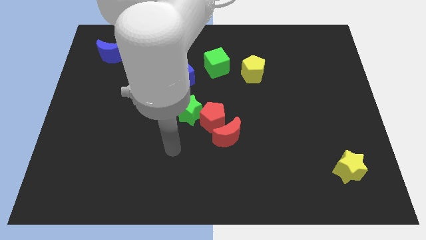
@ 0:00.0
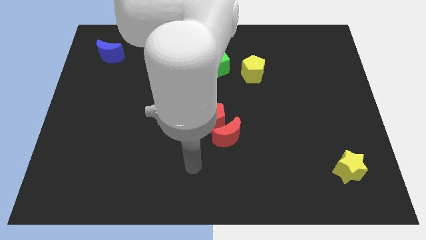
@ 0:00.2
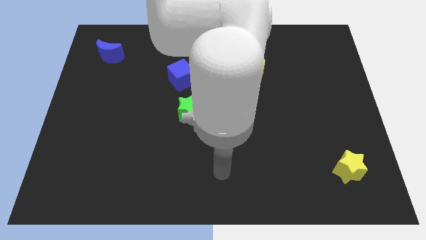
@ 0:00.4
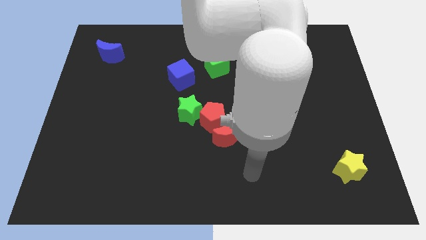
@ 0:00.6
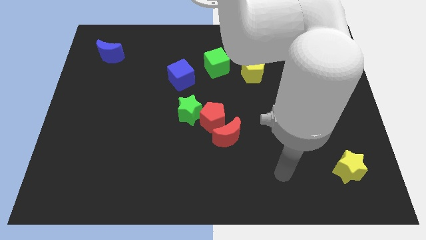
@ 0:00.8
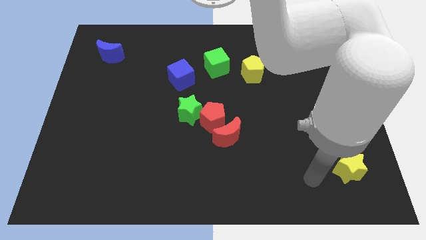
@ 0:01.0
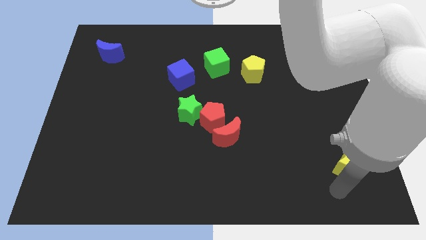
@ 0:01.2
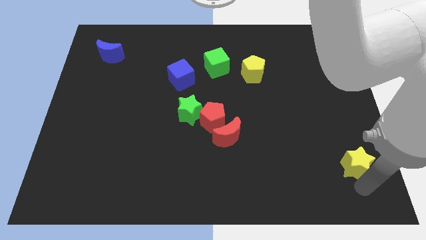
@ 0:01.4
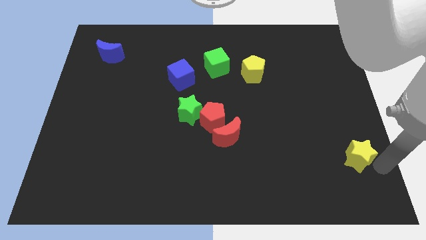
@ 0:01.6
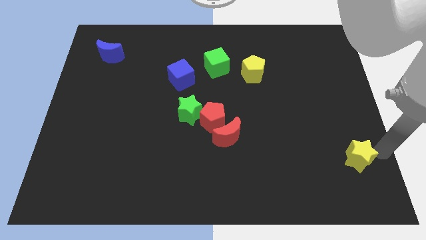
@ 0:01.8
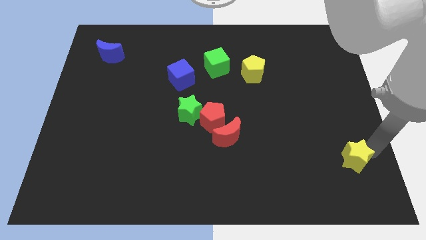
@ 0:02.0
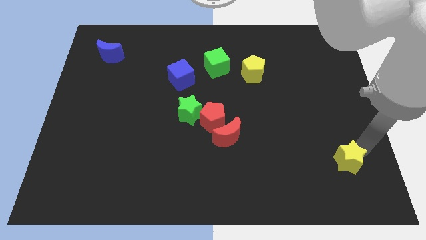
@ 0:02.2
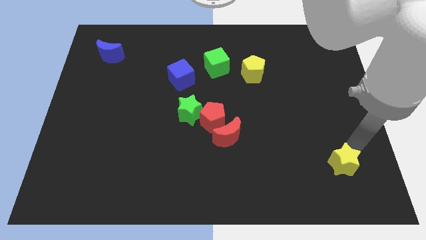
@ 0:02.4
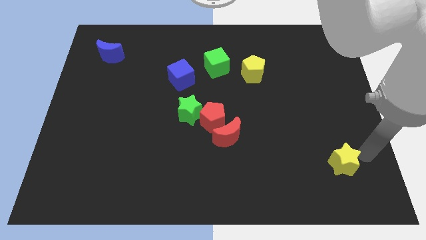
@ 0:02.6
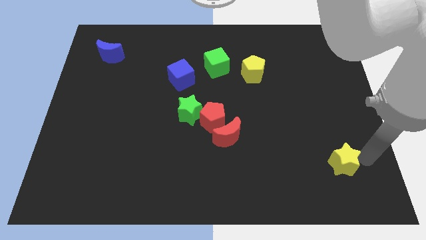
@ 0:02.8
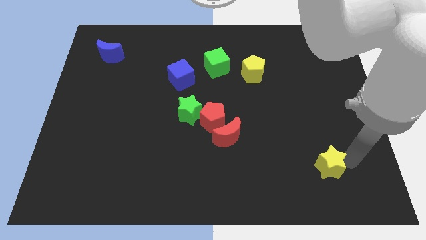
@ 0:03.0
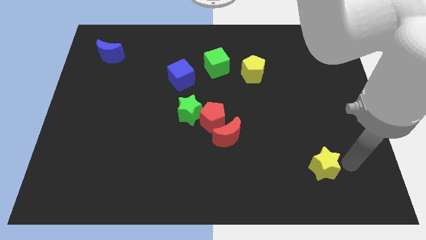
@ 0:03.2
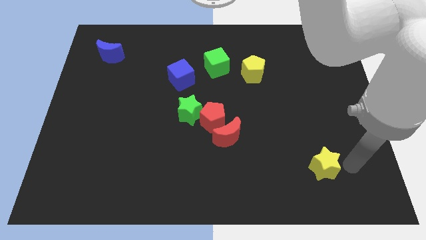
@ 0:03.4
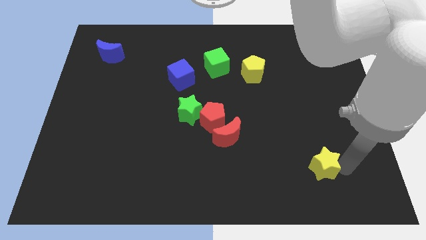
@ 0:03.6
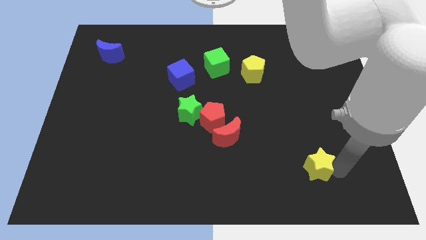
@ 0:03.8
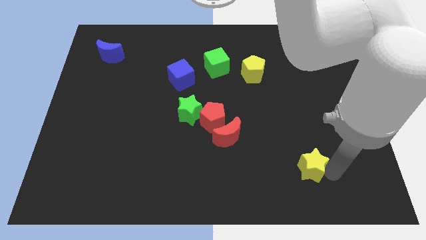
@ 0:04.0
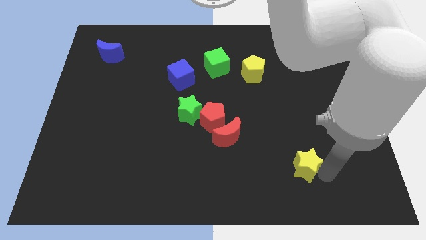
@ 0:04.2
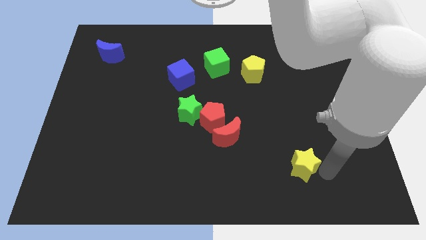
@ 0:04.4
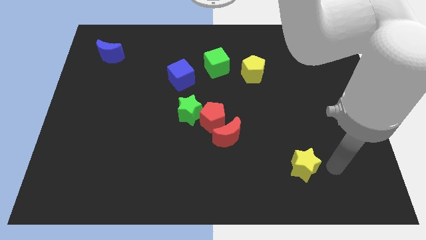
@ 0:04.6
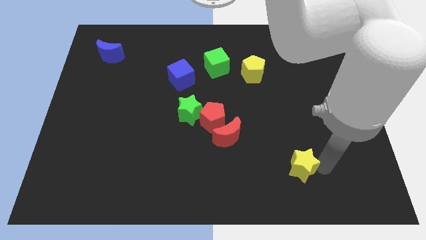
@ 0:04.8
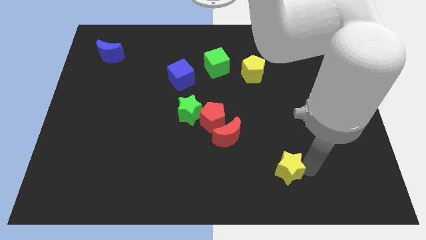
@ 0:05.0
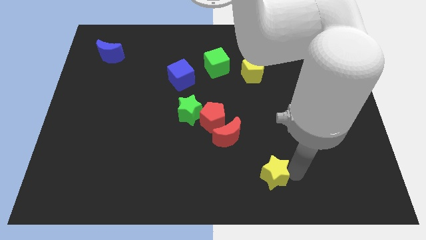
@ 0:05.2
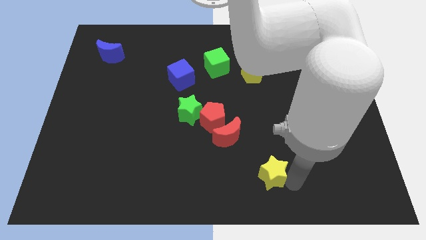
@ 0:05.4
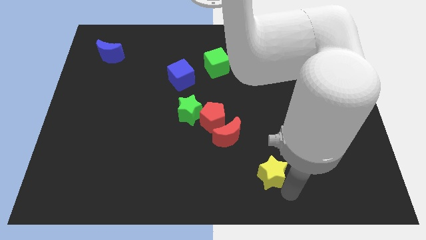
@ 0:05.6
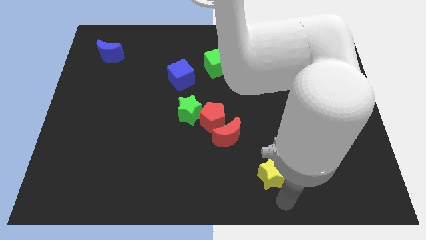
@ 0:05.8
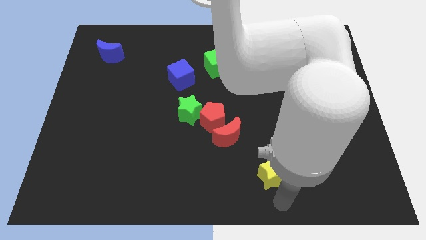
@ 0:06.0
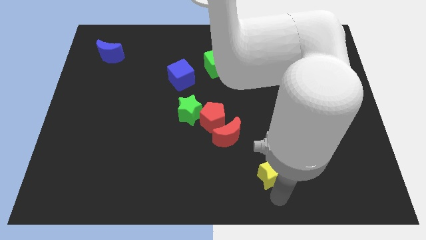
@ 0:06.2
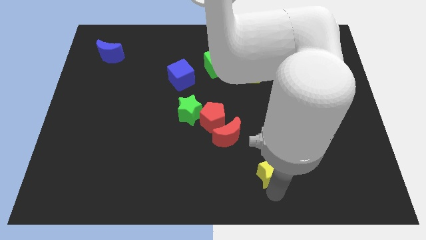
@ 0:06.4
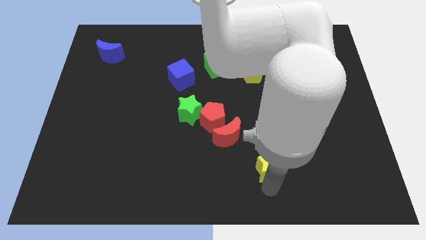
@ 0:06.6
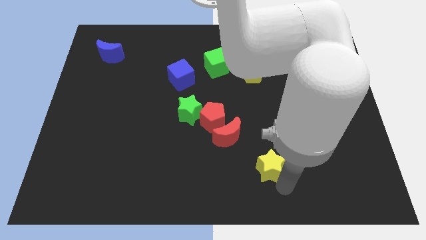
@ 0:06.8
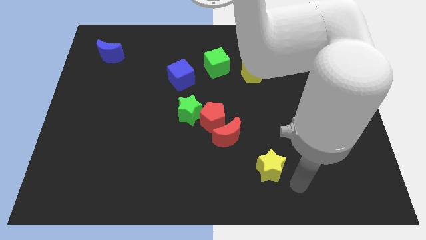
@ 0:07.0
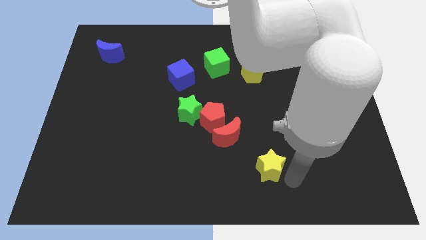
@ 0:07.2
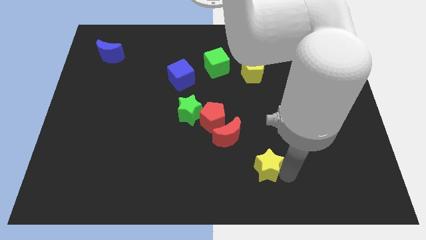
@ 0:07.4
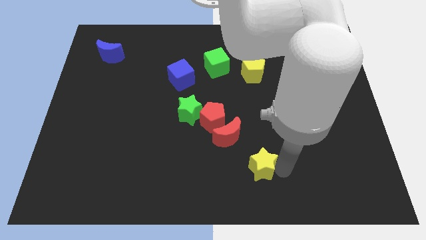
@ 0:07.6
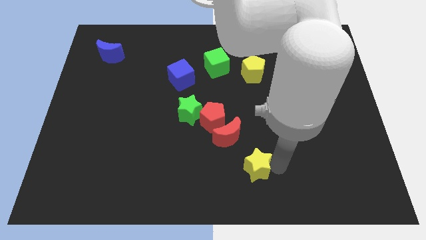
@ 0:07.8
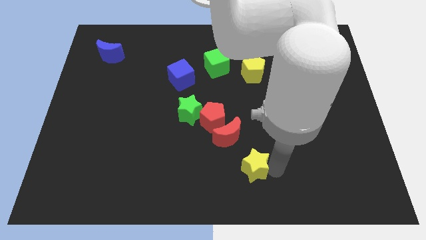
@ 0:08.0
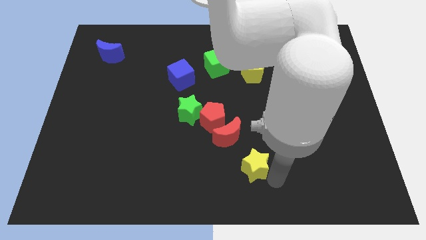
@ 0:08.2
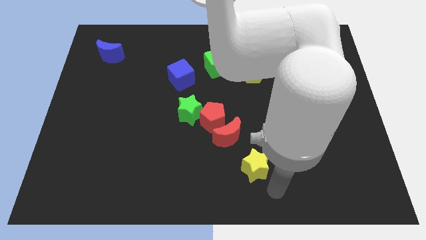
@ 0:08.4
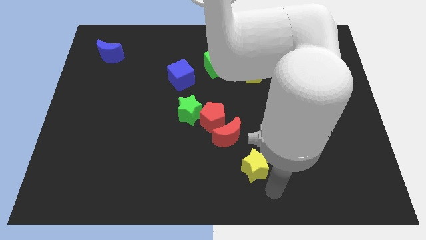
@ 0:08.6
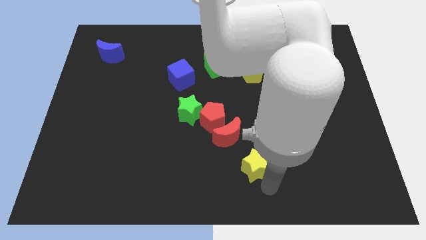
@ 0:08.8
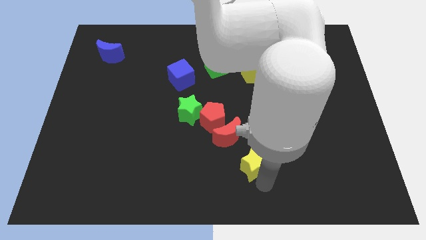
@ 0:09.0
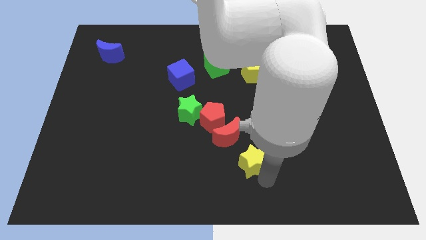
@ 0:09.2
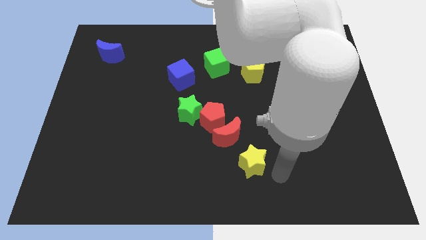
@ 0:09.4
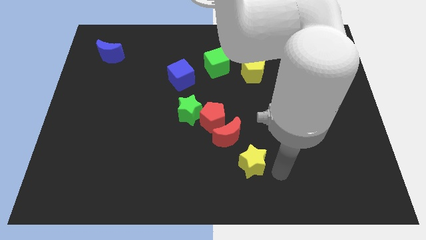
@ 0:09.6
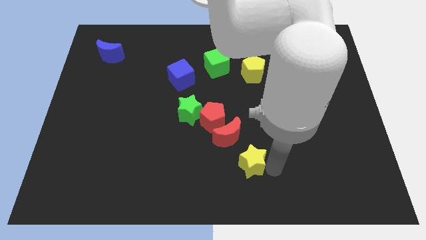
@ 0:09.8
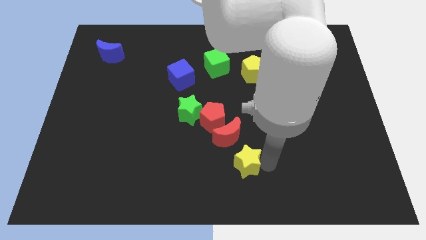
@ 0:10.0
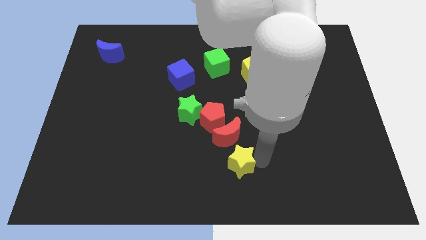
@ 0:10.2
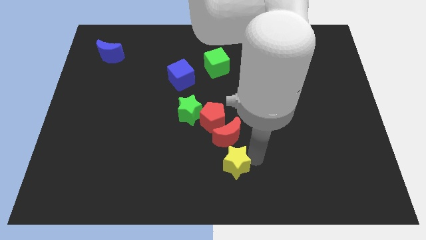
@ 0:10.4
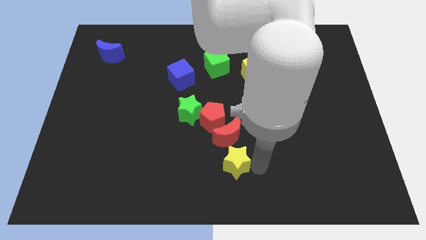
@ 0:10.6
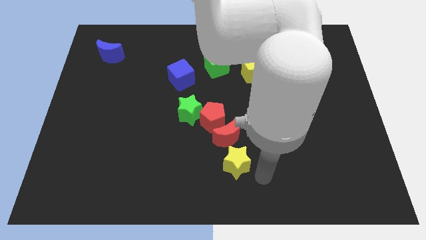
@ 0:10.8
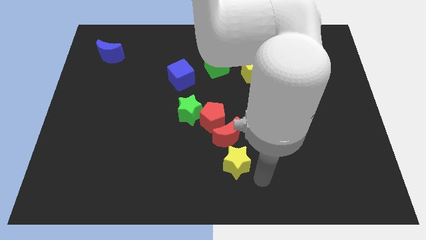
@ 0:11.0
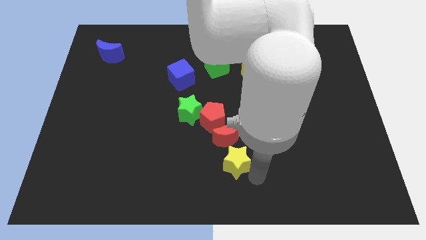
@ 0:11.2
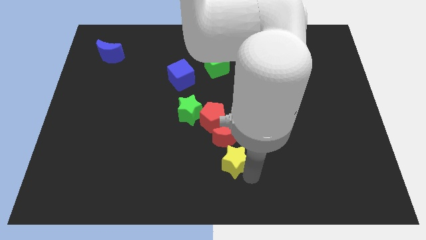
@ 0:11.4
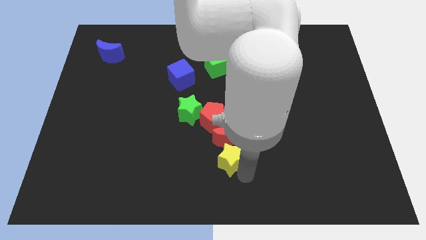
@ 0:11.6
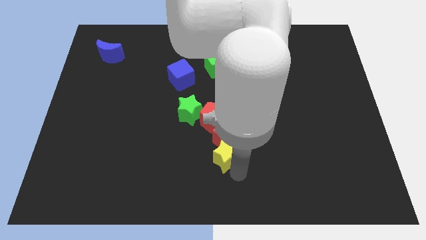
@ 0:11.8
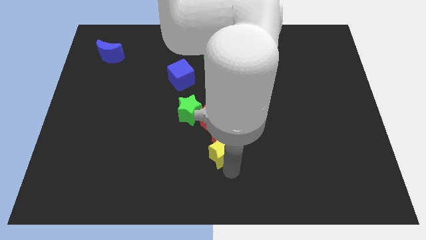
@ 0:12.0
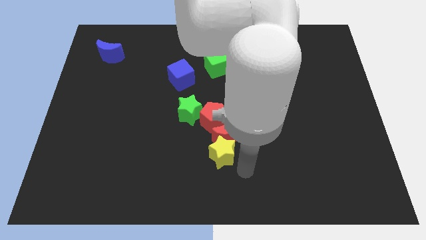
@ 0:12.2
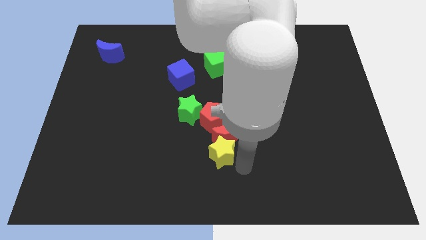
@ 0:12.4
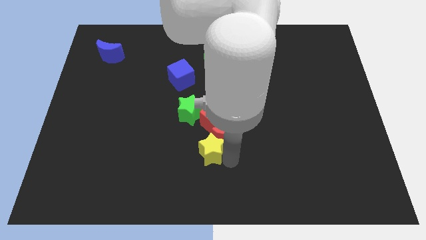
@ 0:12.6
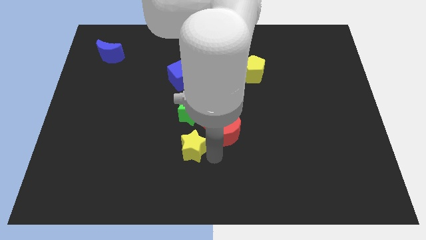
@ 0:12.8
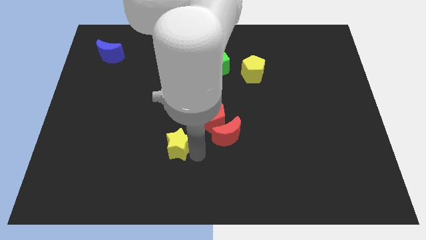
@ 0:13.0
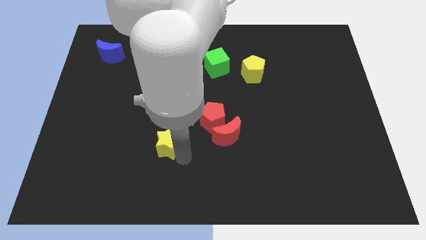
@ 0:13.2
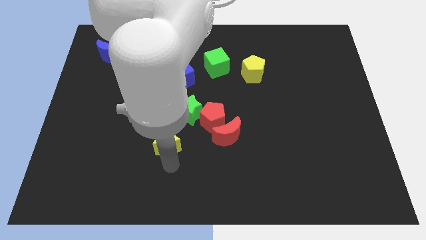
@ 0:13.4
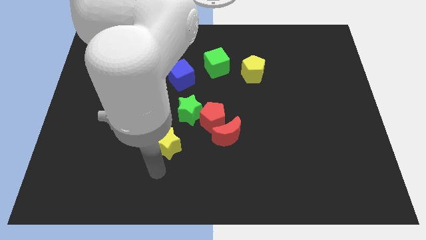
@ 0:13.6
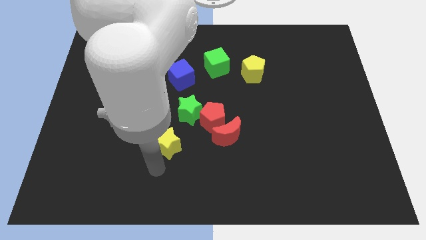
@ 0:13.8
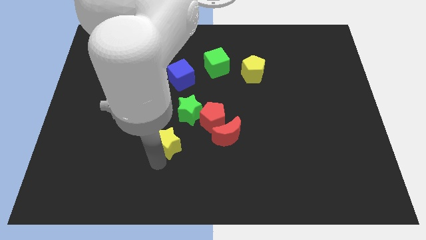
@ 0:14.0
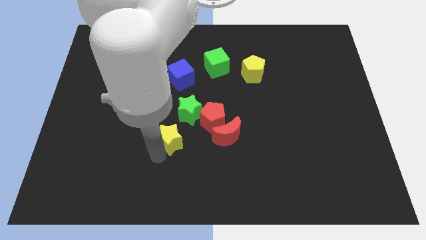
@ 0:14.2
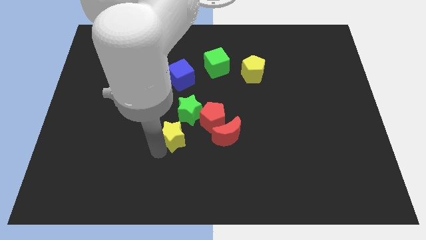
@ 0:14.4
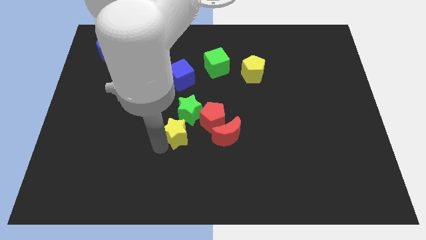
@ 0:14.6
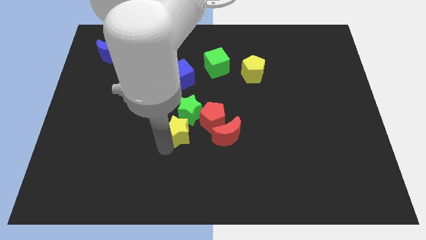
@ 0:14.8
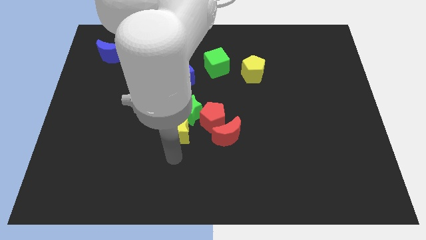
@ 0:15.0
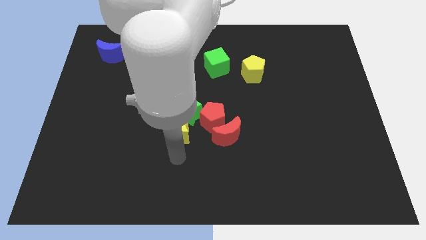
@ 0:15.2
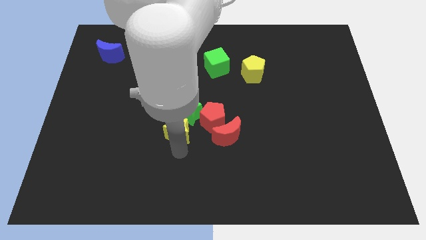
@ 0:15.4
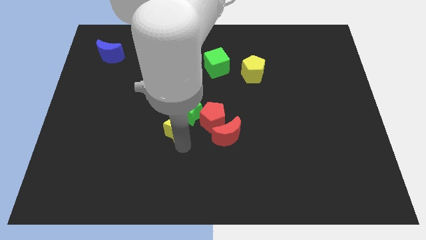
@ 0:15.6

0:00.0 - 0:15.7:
slide the yellow star to the bottom side of the blue cube
